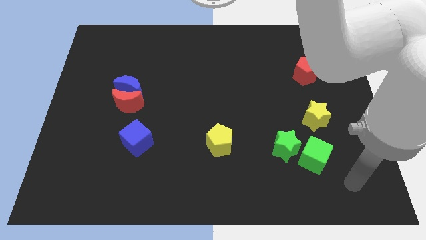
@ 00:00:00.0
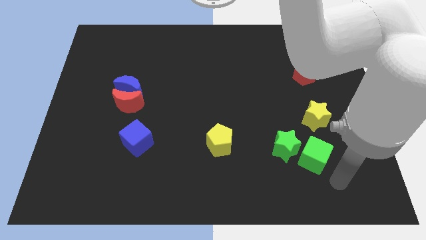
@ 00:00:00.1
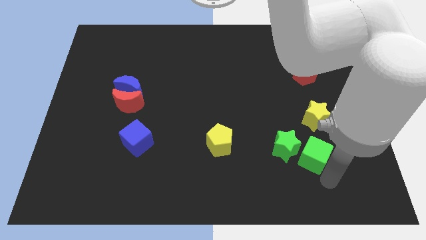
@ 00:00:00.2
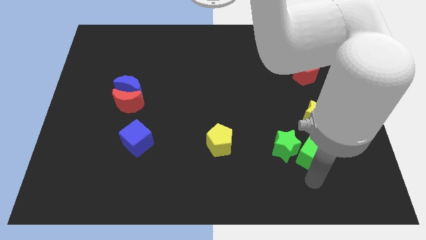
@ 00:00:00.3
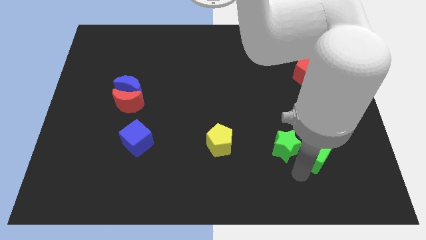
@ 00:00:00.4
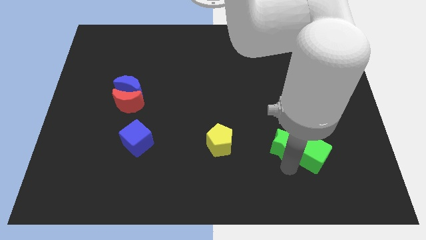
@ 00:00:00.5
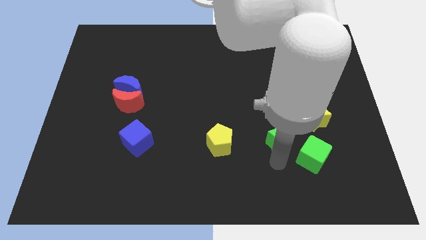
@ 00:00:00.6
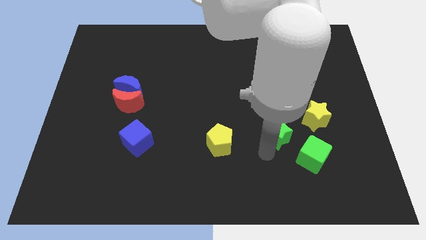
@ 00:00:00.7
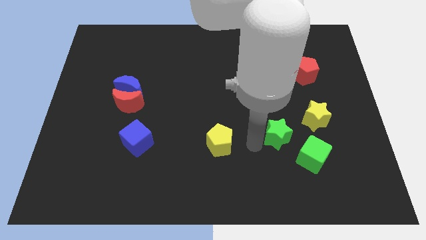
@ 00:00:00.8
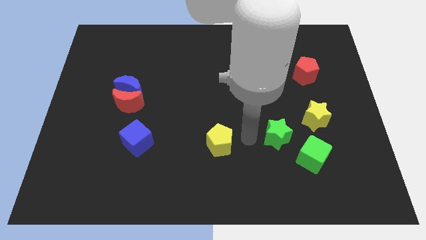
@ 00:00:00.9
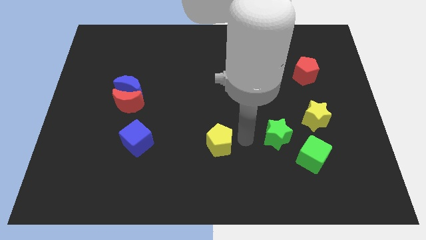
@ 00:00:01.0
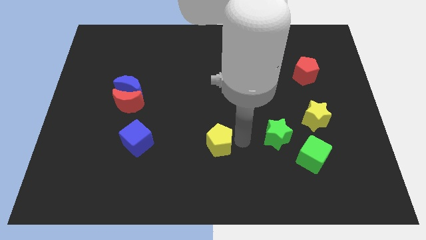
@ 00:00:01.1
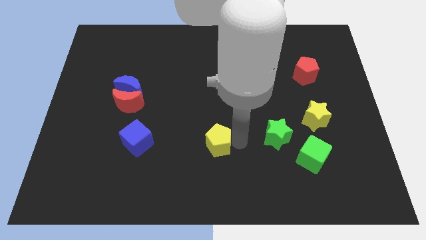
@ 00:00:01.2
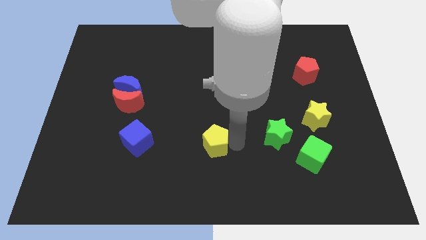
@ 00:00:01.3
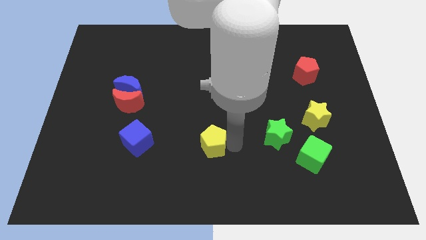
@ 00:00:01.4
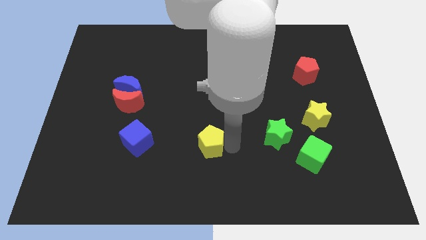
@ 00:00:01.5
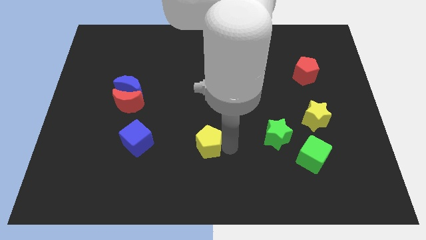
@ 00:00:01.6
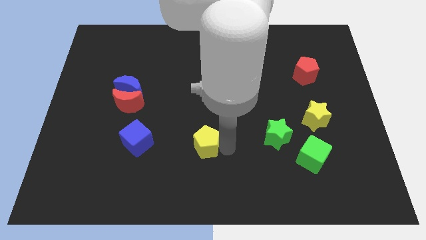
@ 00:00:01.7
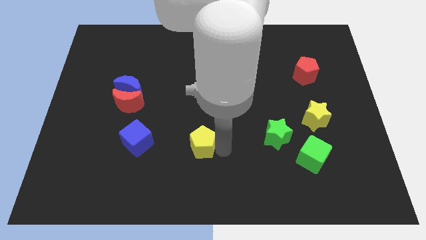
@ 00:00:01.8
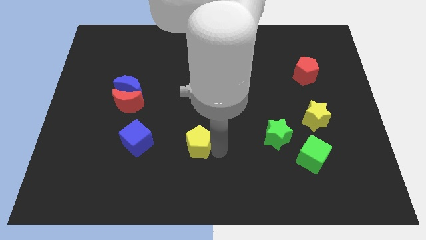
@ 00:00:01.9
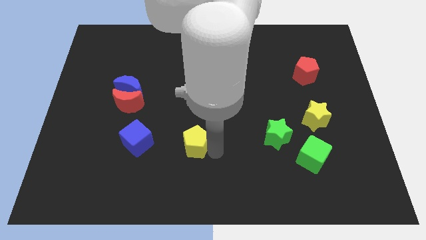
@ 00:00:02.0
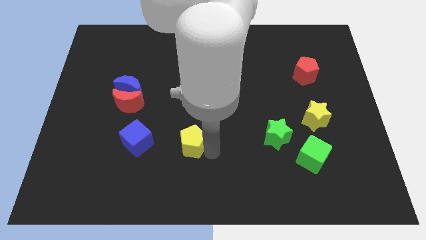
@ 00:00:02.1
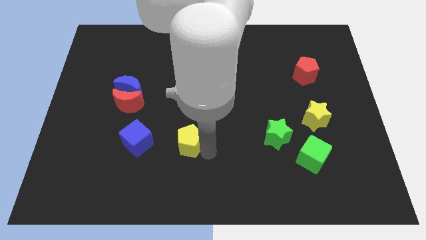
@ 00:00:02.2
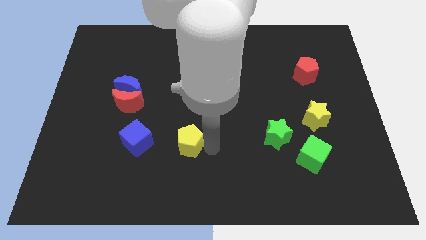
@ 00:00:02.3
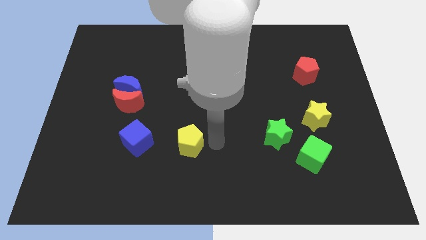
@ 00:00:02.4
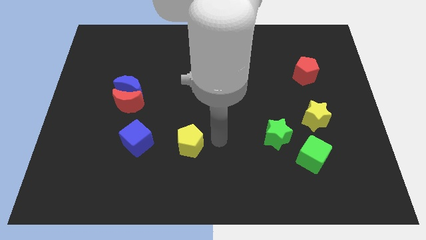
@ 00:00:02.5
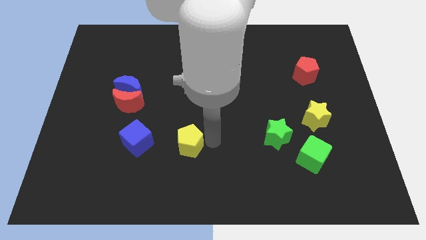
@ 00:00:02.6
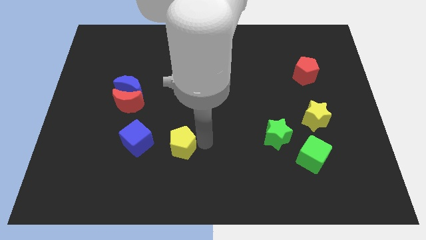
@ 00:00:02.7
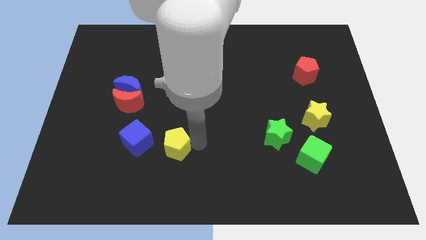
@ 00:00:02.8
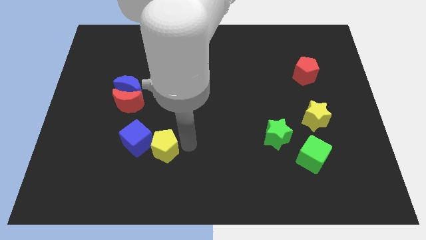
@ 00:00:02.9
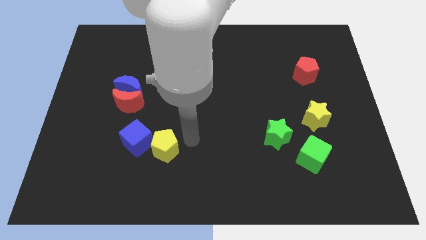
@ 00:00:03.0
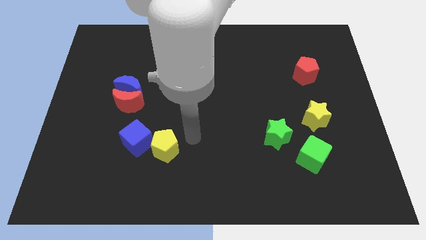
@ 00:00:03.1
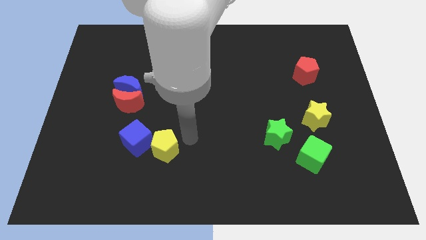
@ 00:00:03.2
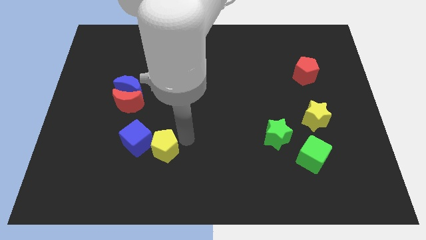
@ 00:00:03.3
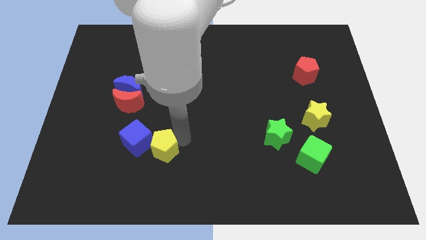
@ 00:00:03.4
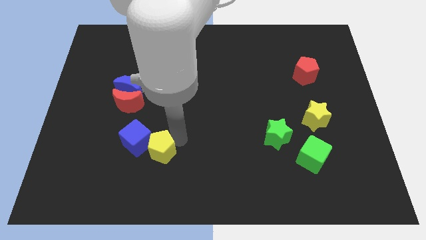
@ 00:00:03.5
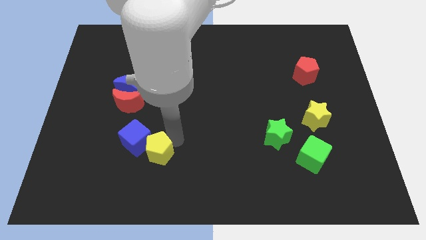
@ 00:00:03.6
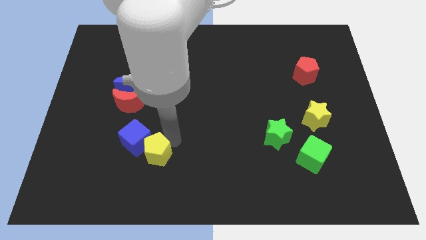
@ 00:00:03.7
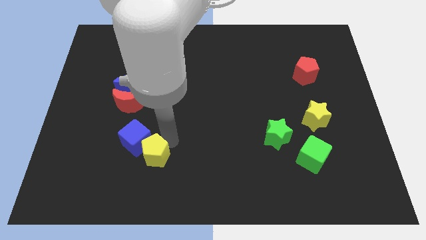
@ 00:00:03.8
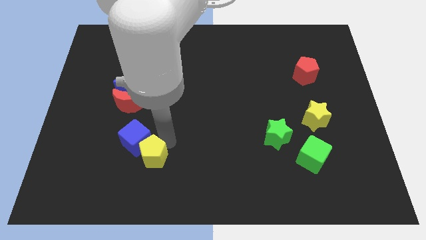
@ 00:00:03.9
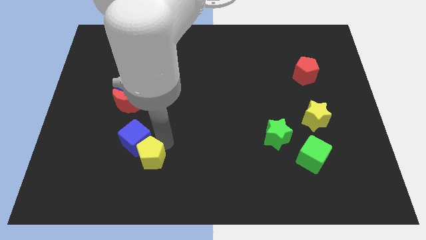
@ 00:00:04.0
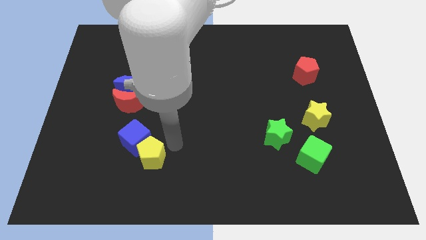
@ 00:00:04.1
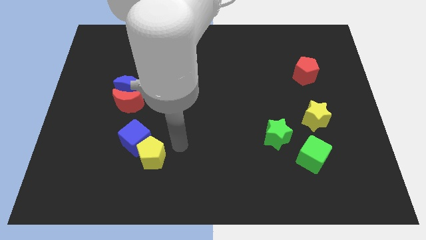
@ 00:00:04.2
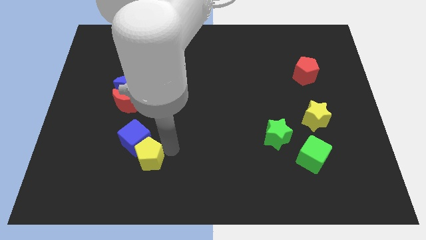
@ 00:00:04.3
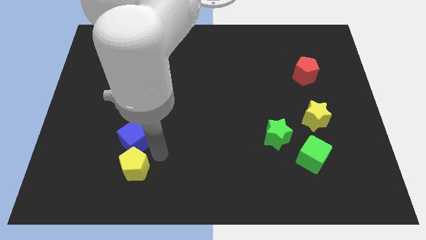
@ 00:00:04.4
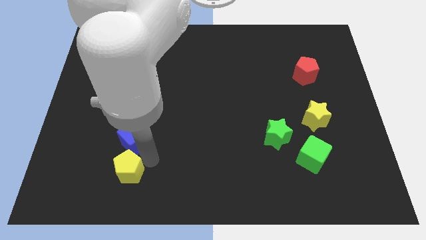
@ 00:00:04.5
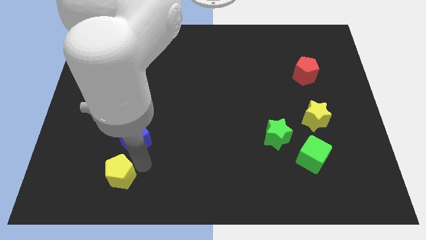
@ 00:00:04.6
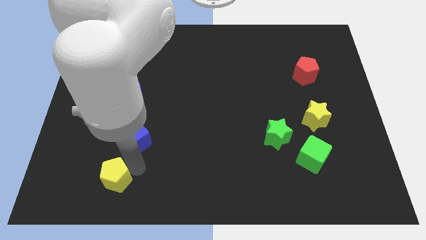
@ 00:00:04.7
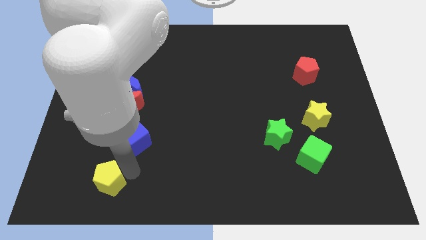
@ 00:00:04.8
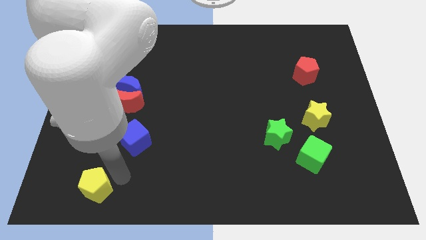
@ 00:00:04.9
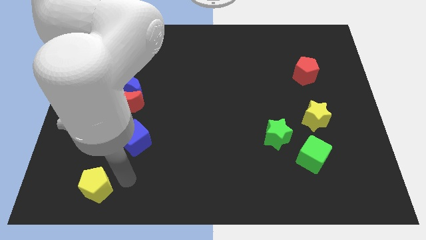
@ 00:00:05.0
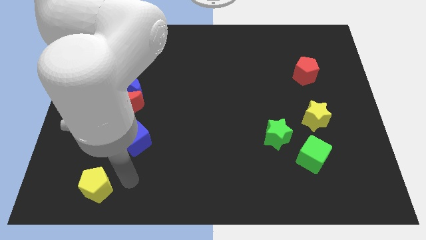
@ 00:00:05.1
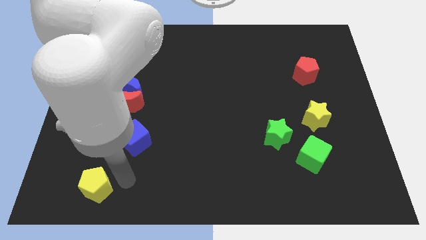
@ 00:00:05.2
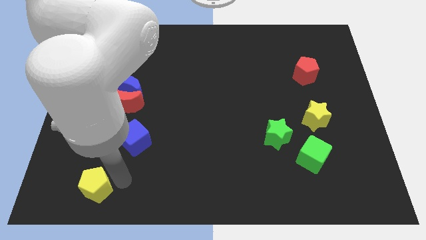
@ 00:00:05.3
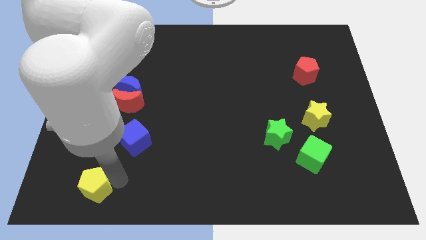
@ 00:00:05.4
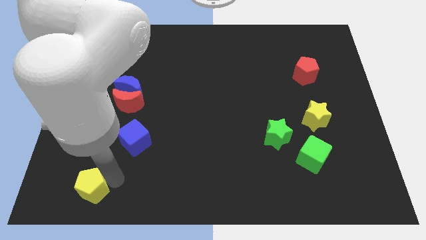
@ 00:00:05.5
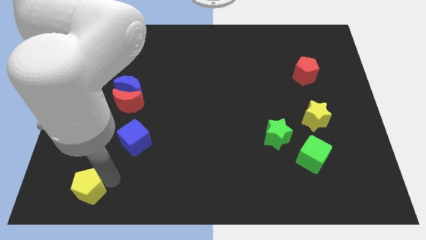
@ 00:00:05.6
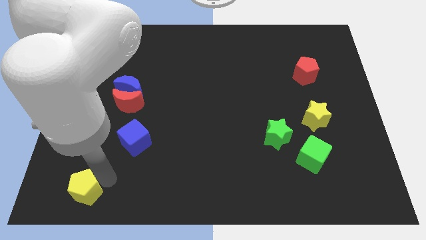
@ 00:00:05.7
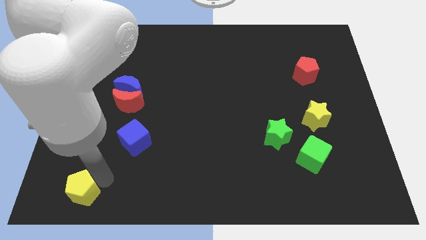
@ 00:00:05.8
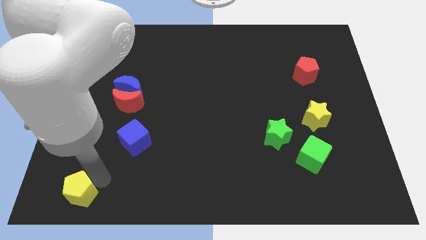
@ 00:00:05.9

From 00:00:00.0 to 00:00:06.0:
slide the yellow pentagon to the bottom left of the board

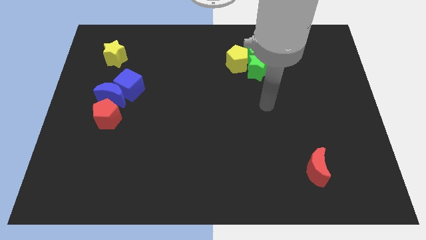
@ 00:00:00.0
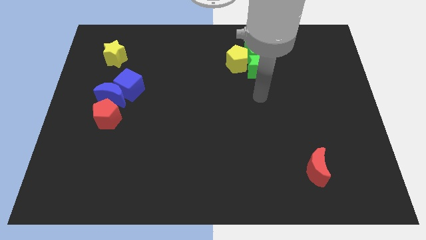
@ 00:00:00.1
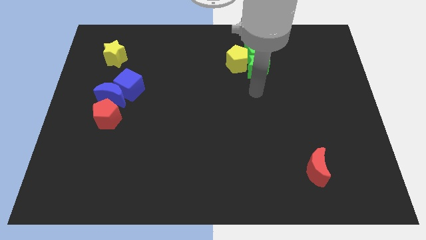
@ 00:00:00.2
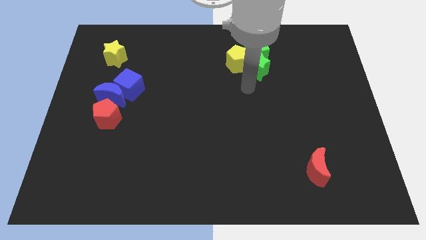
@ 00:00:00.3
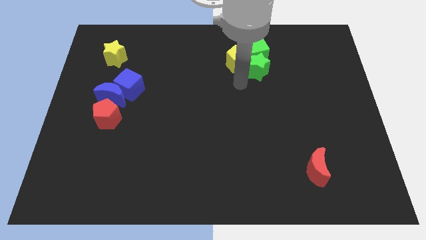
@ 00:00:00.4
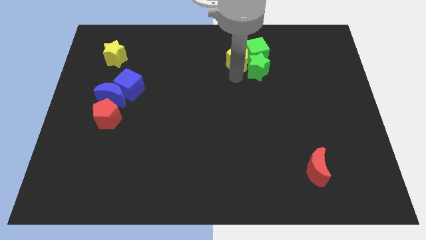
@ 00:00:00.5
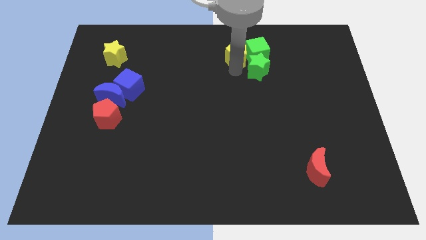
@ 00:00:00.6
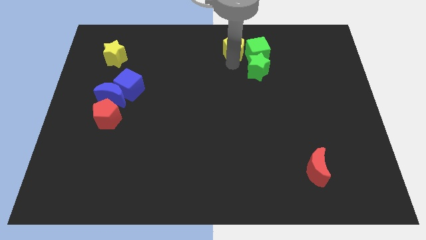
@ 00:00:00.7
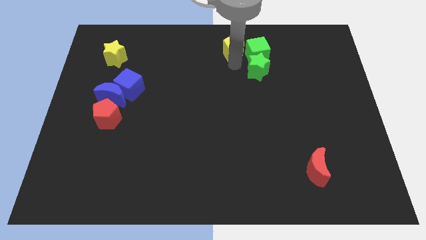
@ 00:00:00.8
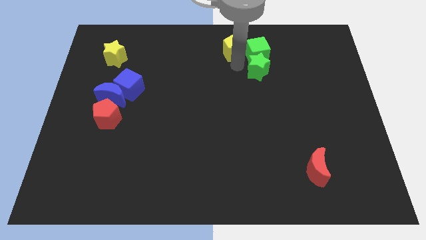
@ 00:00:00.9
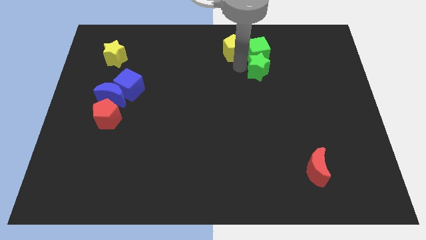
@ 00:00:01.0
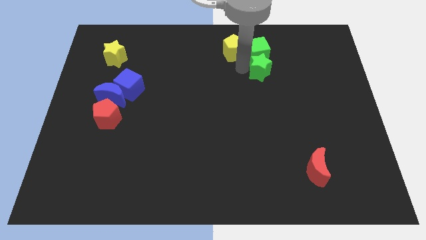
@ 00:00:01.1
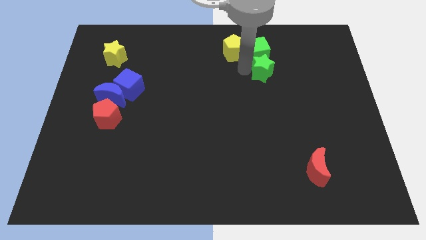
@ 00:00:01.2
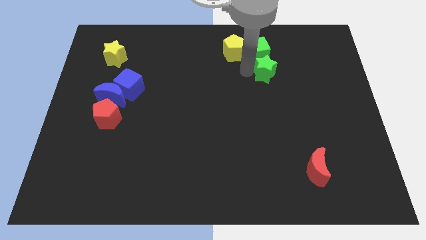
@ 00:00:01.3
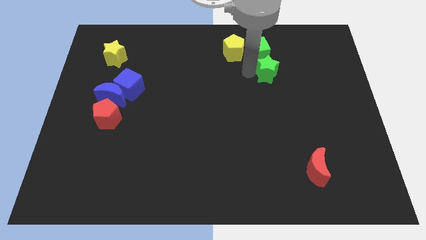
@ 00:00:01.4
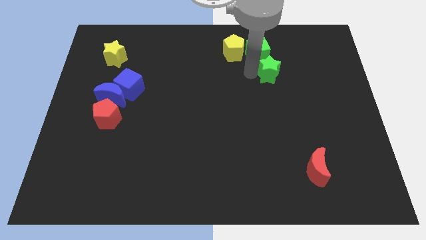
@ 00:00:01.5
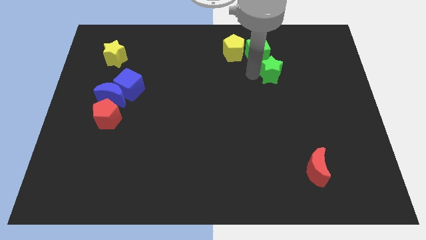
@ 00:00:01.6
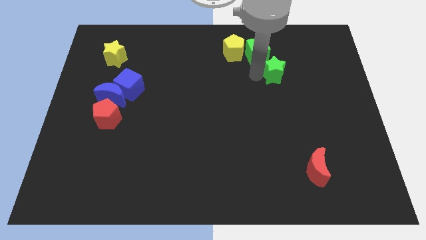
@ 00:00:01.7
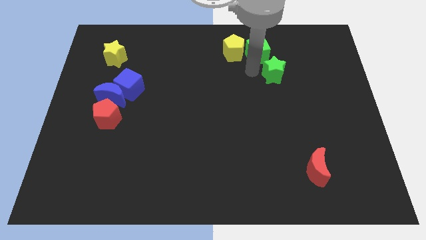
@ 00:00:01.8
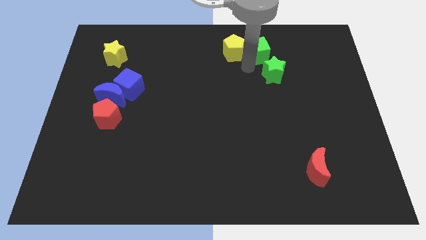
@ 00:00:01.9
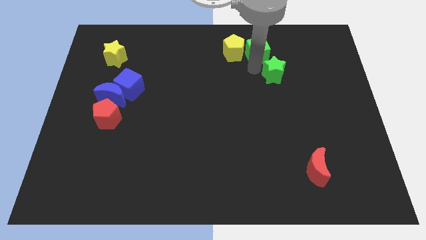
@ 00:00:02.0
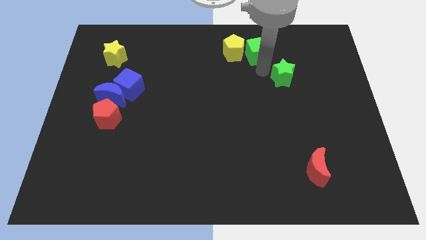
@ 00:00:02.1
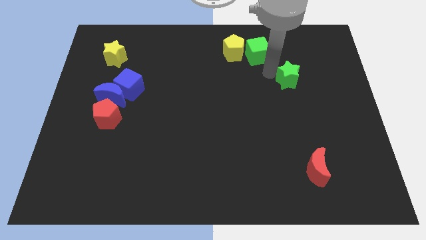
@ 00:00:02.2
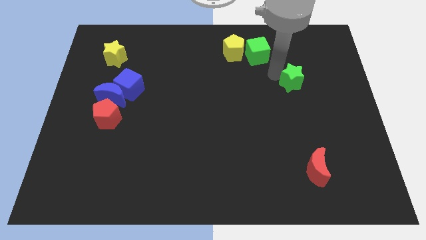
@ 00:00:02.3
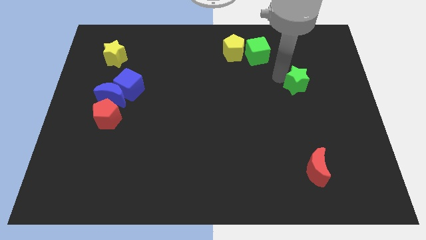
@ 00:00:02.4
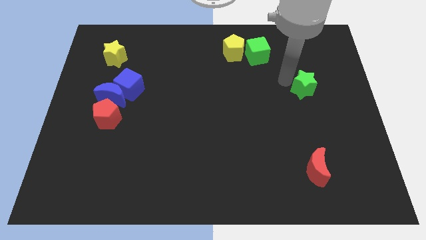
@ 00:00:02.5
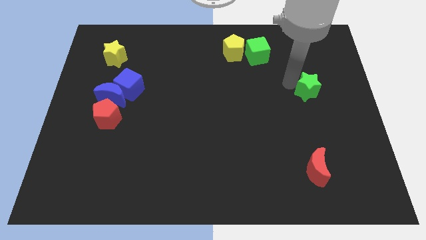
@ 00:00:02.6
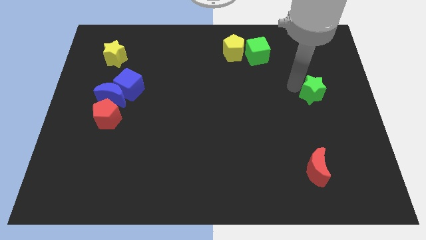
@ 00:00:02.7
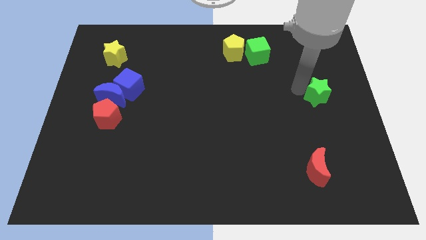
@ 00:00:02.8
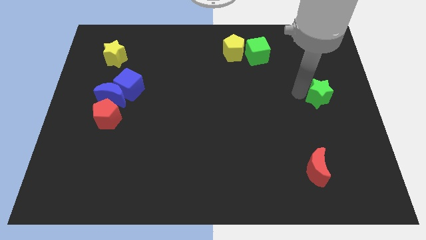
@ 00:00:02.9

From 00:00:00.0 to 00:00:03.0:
slide the green star to the right side
